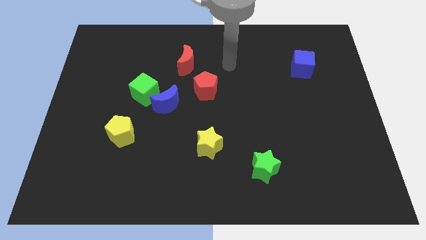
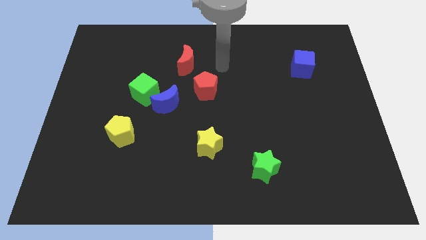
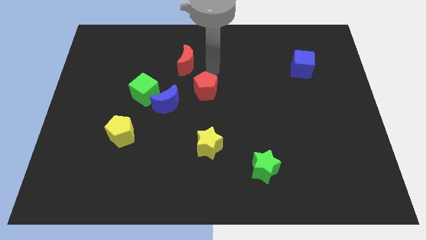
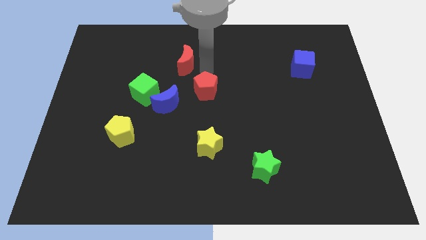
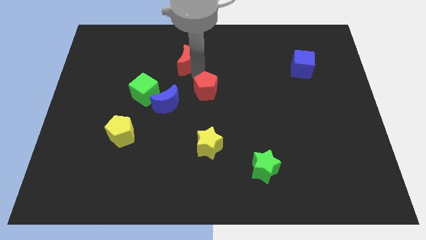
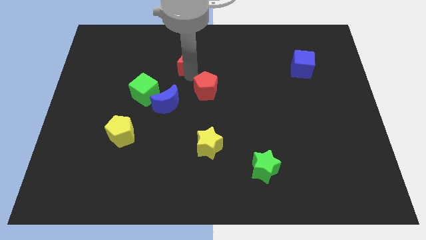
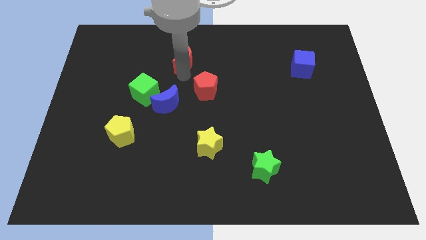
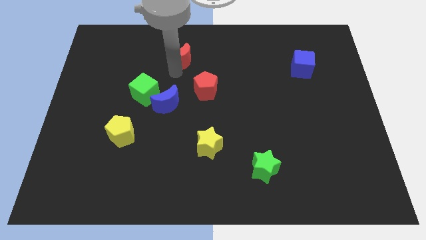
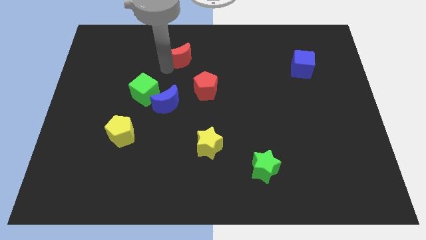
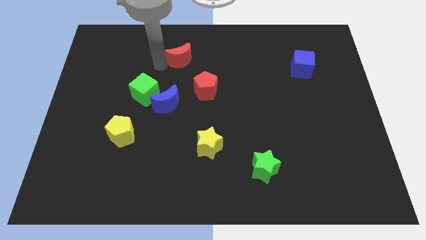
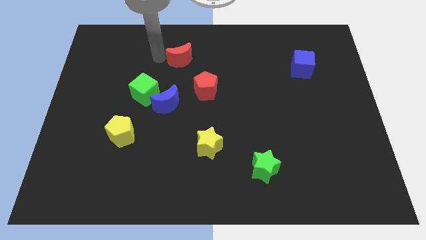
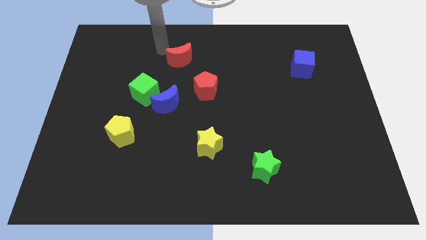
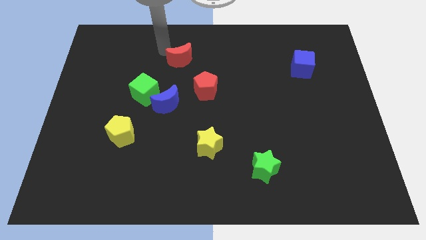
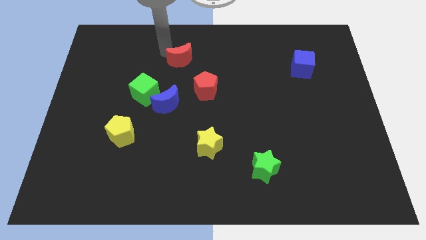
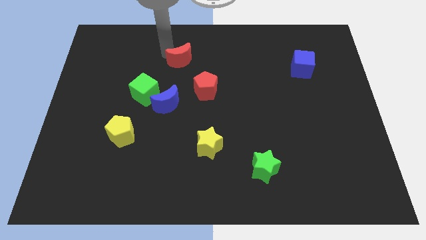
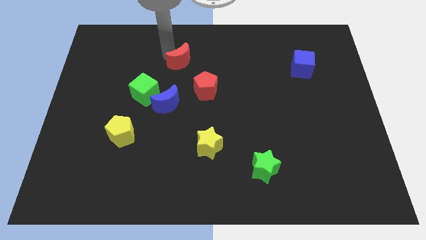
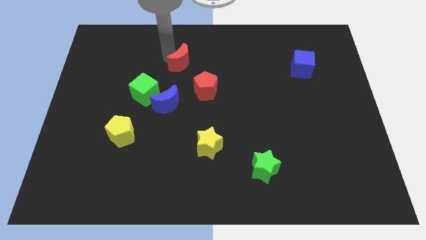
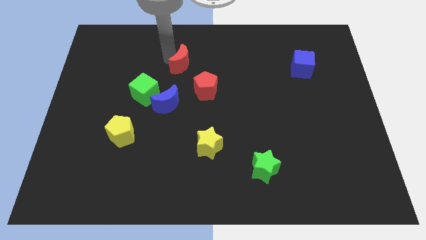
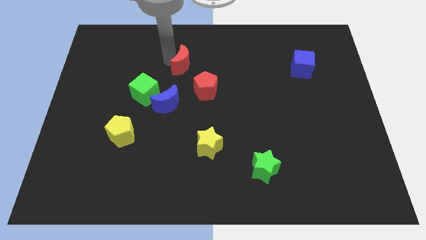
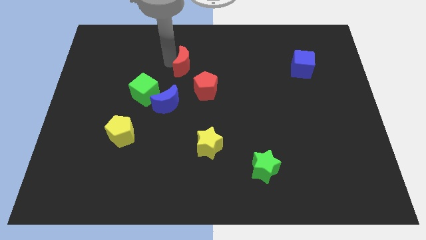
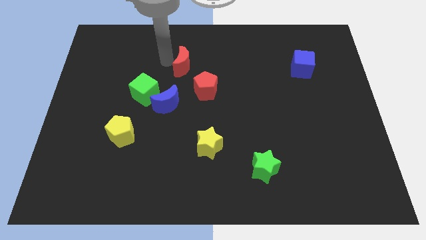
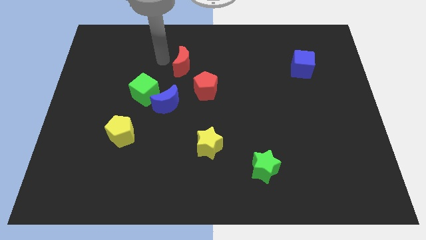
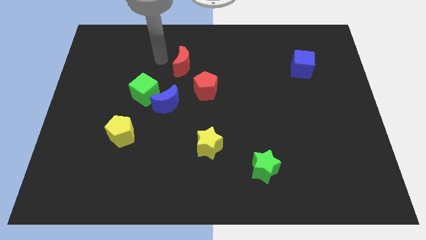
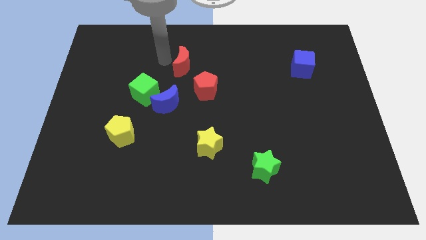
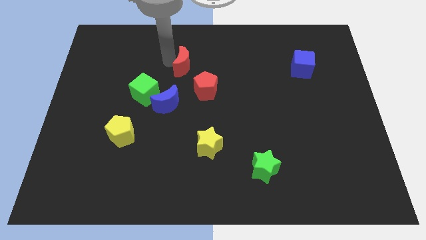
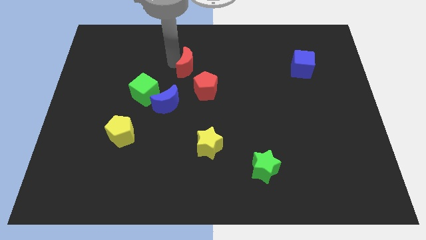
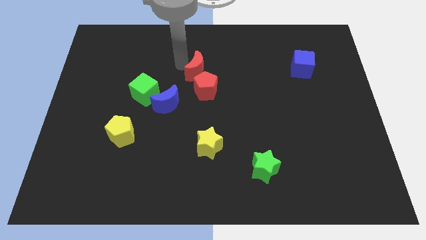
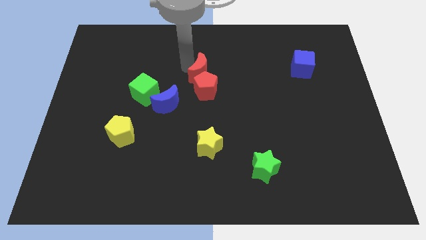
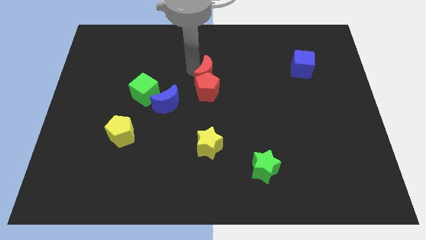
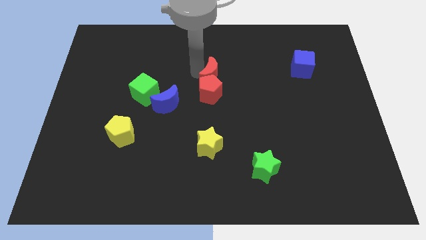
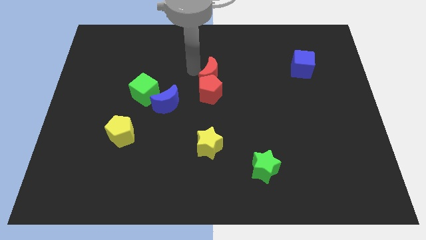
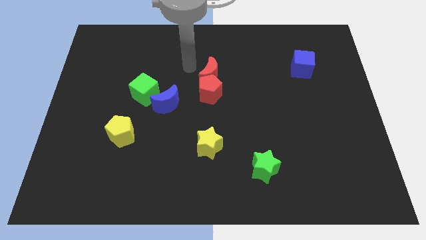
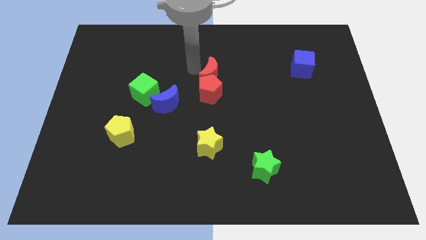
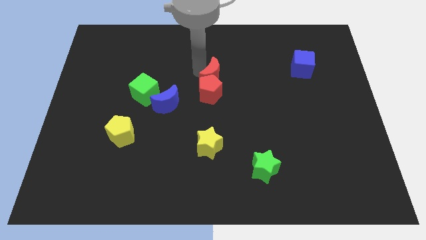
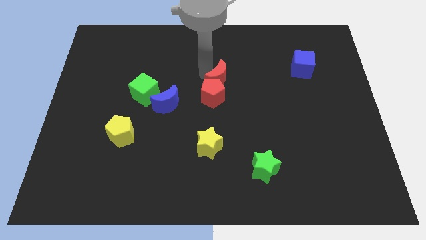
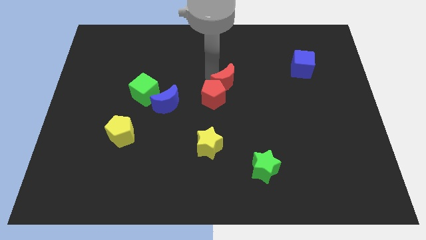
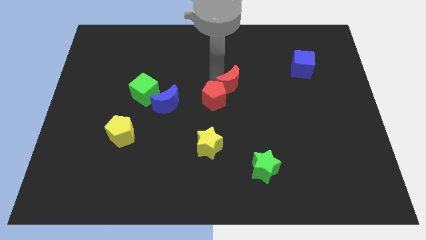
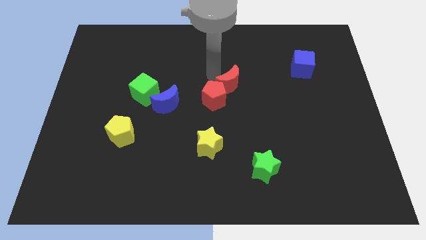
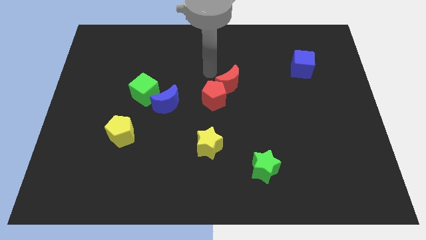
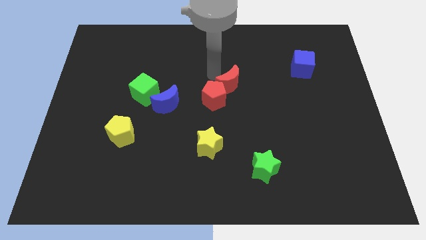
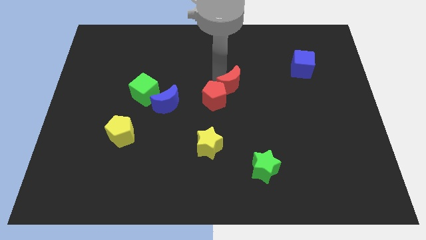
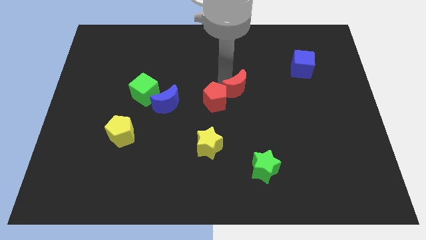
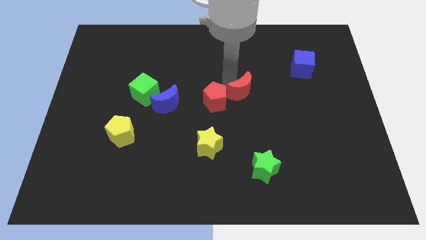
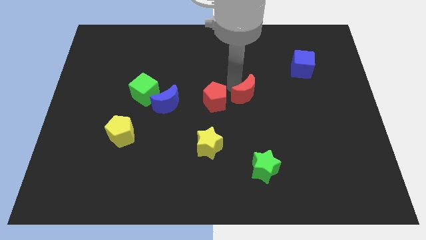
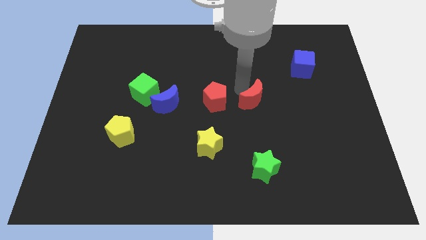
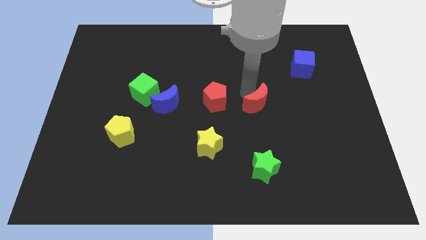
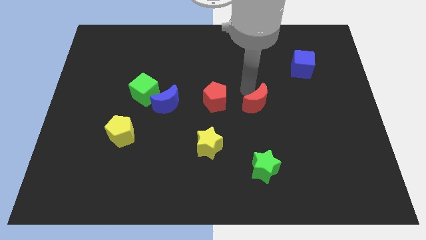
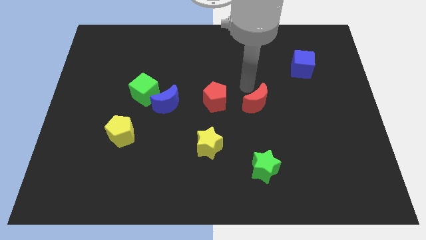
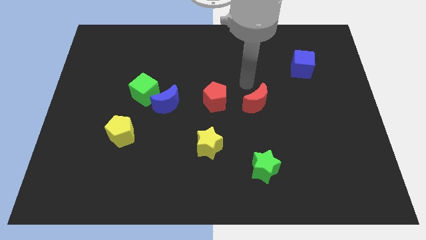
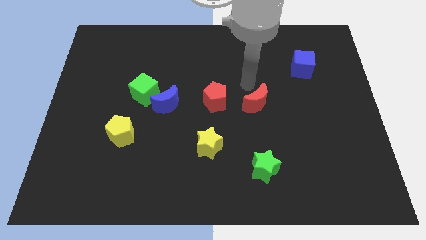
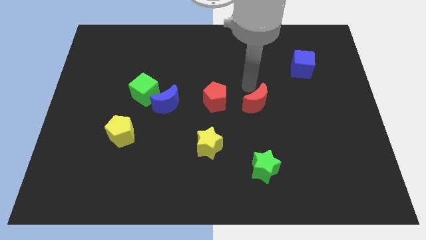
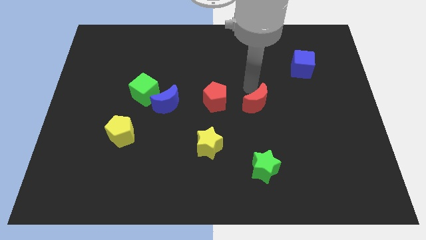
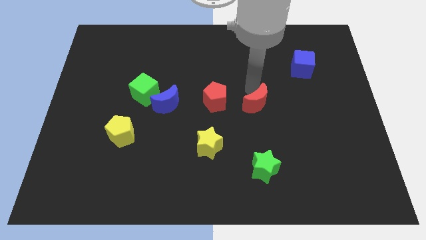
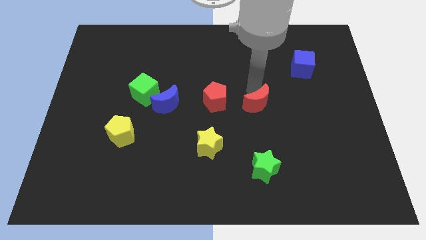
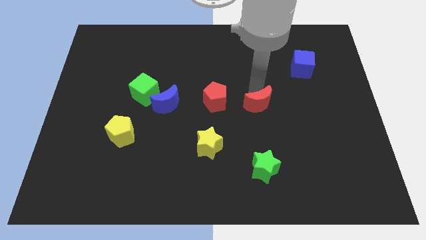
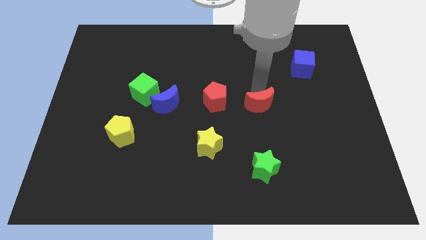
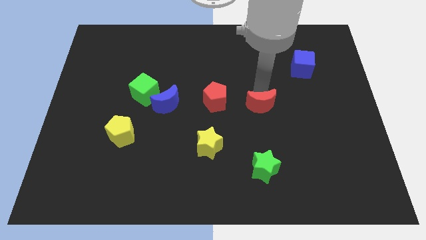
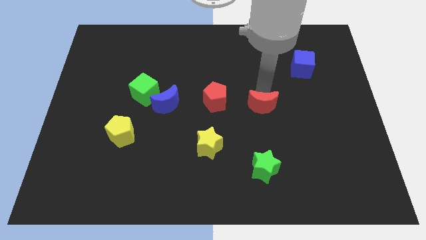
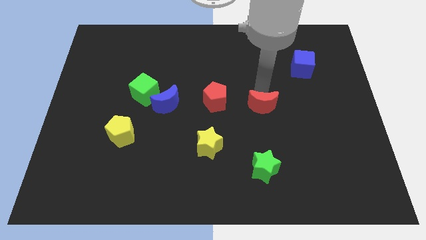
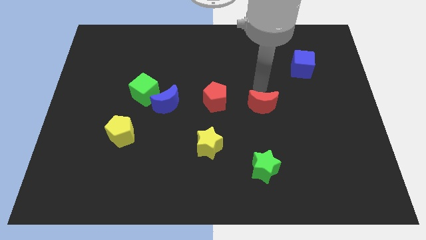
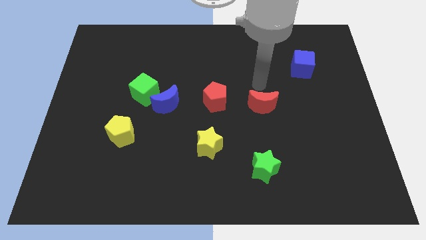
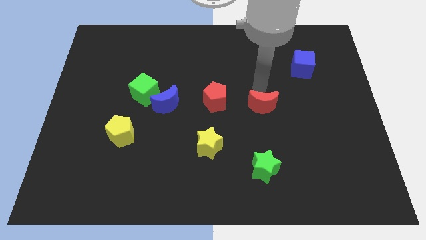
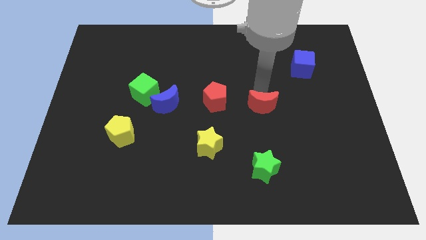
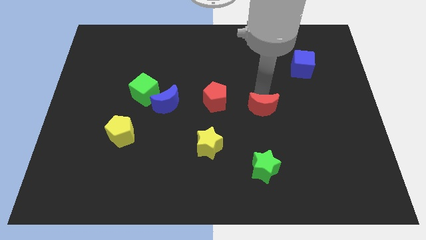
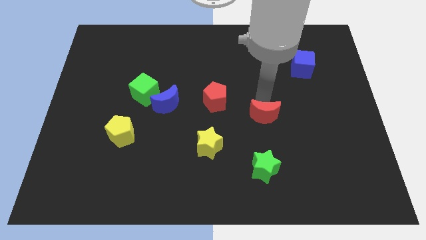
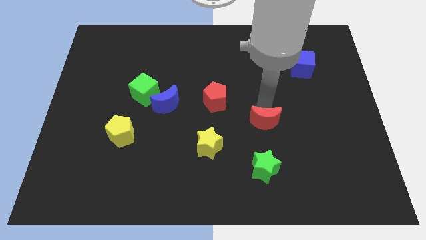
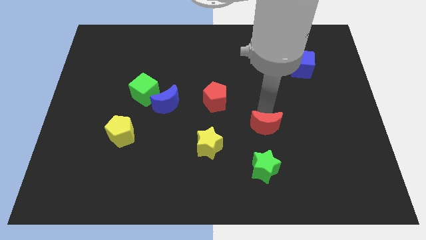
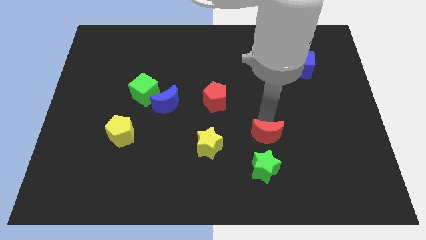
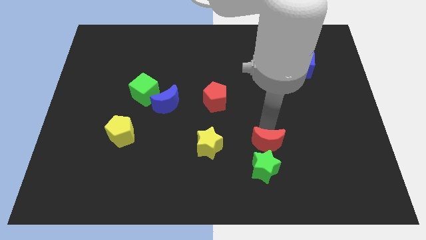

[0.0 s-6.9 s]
slide the red moon close to the green star
